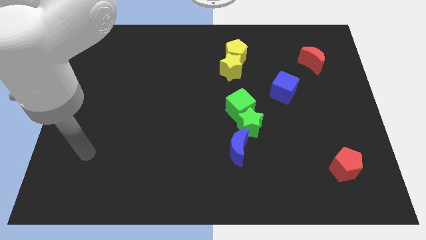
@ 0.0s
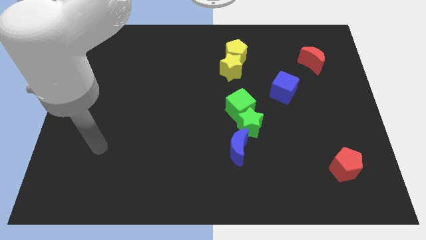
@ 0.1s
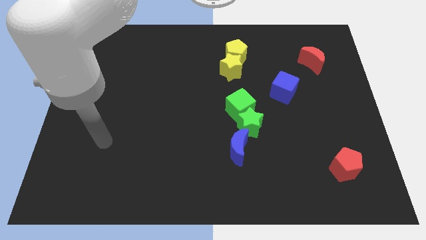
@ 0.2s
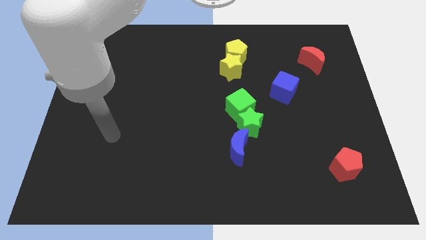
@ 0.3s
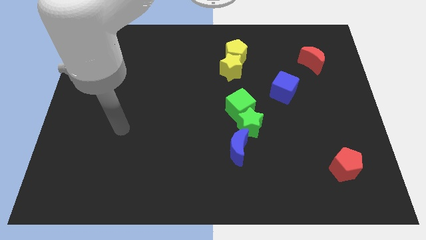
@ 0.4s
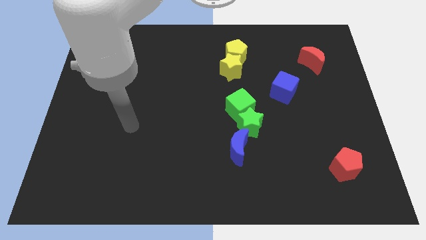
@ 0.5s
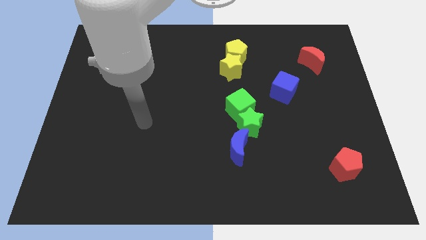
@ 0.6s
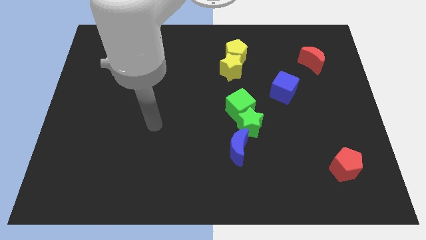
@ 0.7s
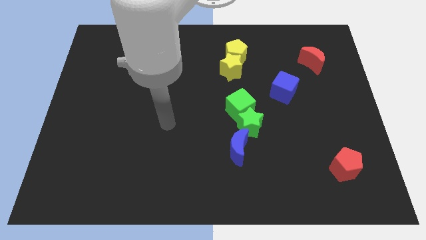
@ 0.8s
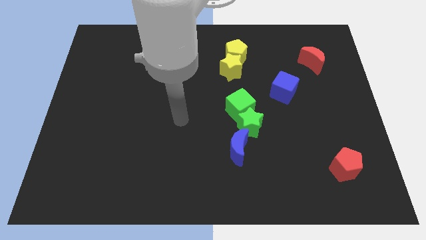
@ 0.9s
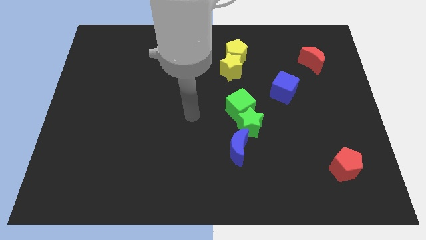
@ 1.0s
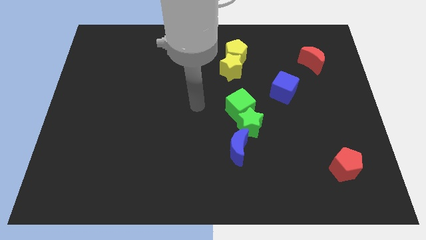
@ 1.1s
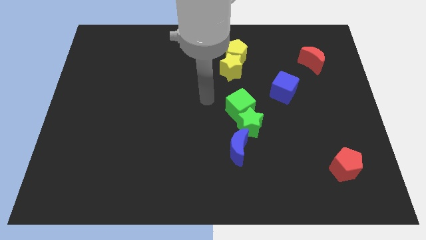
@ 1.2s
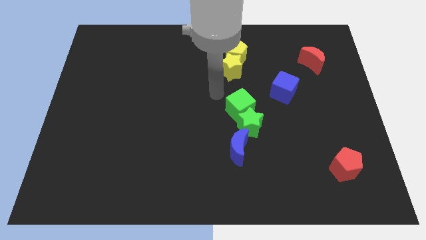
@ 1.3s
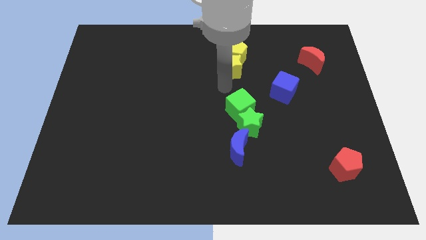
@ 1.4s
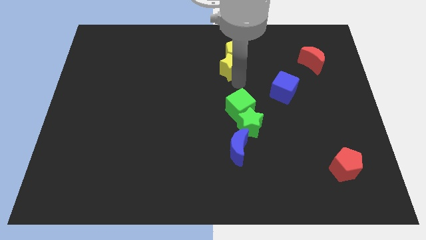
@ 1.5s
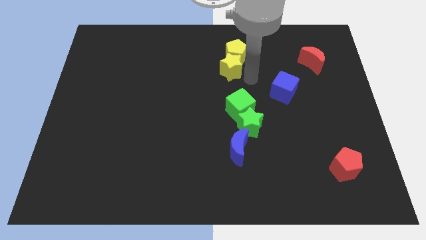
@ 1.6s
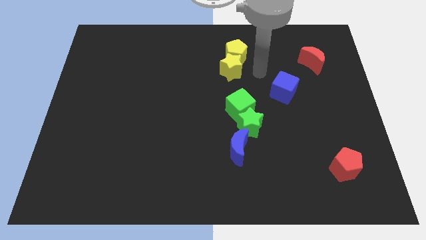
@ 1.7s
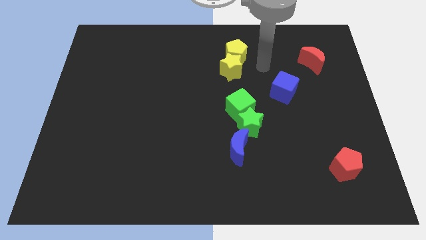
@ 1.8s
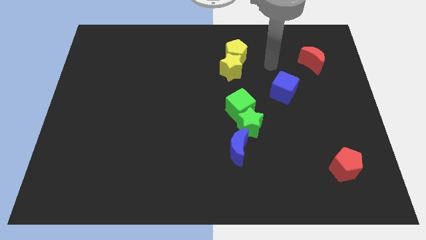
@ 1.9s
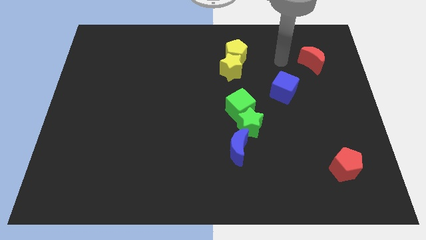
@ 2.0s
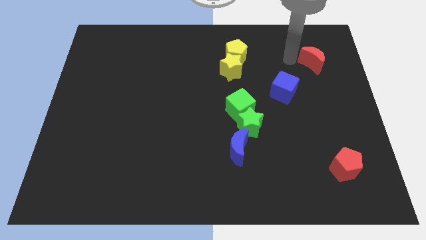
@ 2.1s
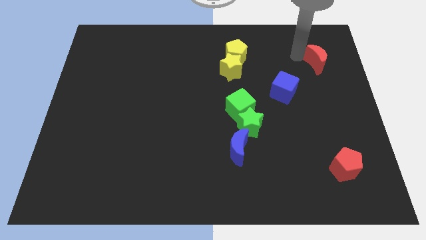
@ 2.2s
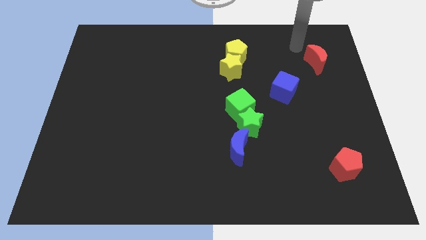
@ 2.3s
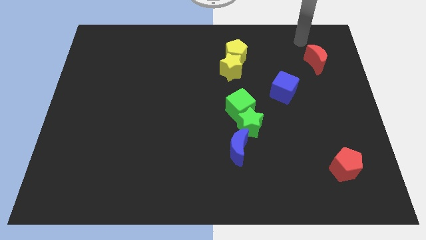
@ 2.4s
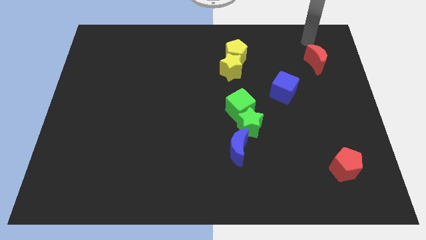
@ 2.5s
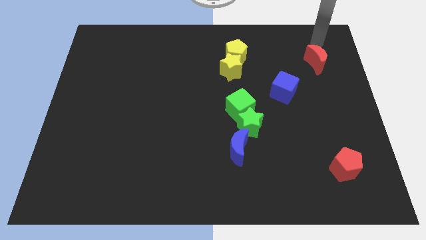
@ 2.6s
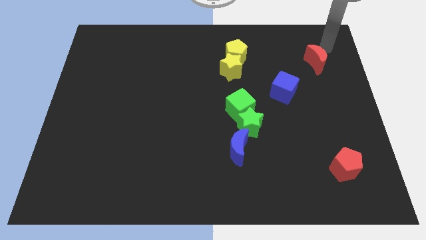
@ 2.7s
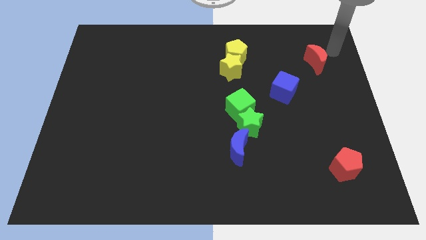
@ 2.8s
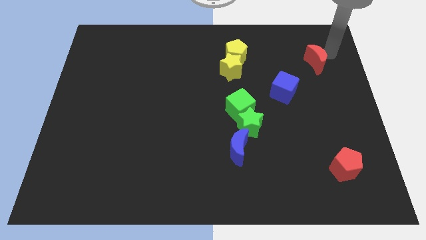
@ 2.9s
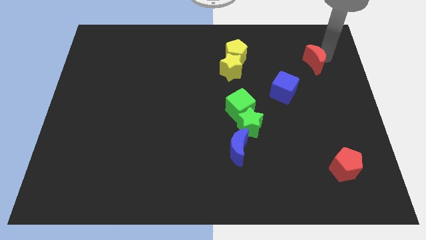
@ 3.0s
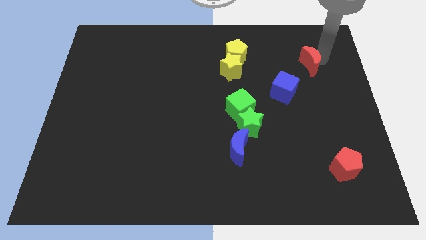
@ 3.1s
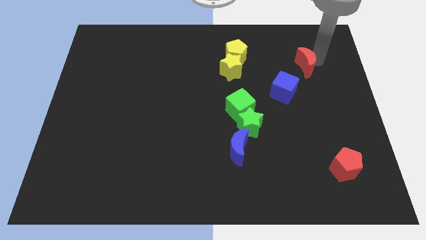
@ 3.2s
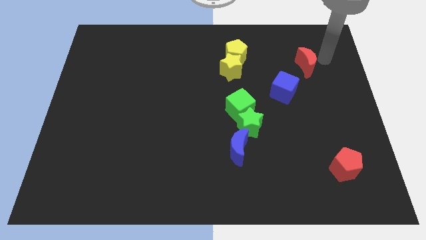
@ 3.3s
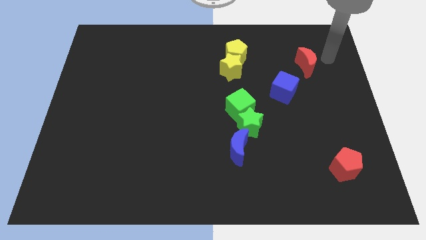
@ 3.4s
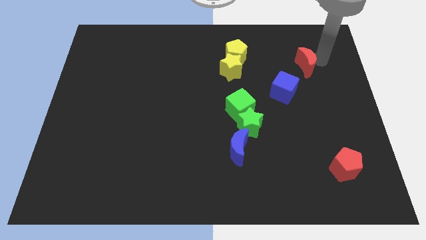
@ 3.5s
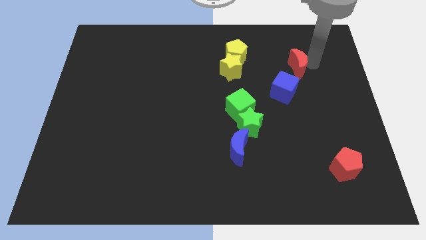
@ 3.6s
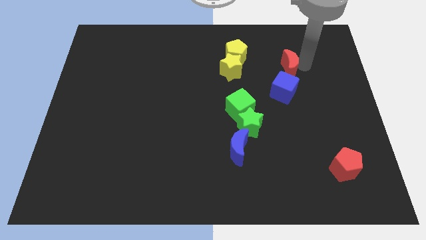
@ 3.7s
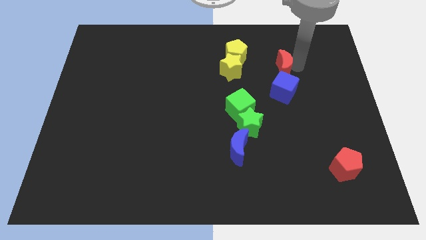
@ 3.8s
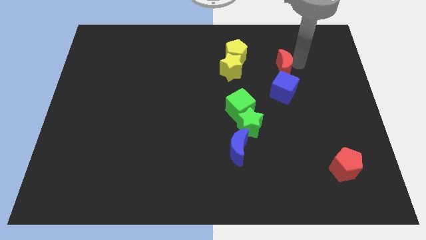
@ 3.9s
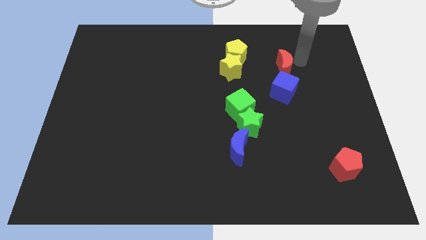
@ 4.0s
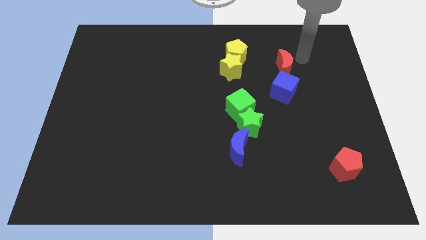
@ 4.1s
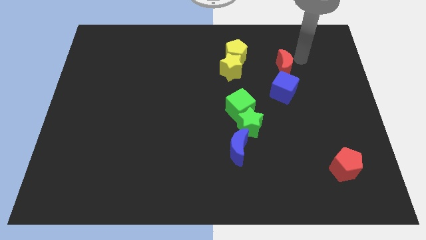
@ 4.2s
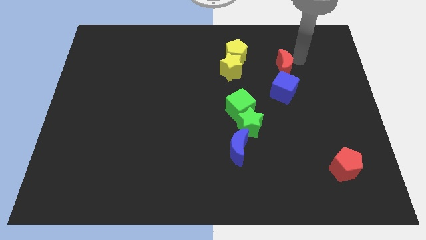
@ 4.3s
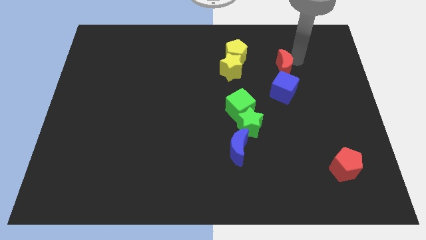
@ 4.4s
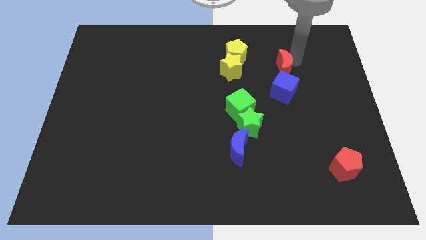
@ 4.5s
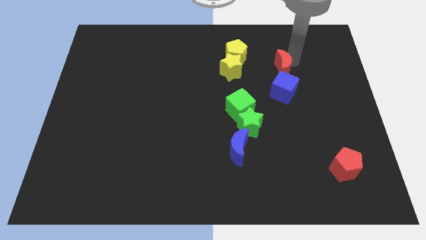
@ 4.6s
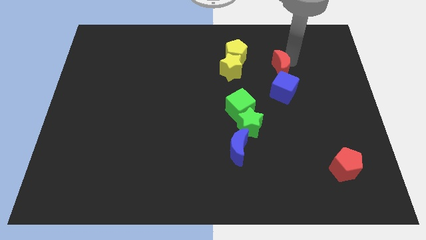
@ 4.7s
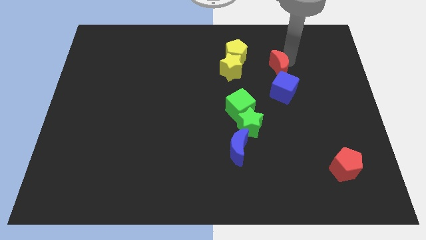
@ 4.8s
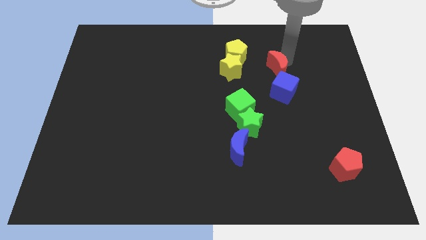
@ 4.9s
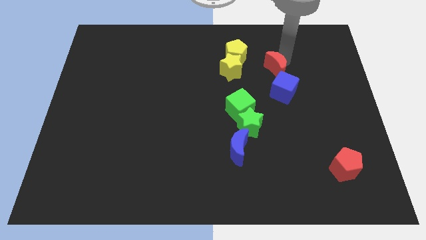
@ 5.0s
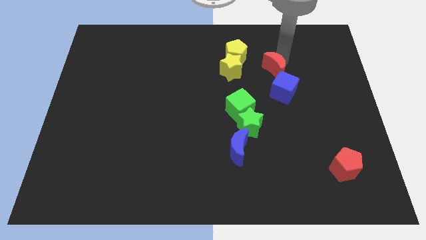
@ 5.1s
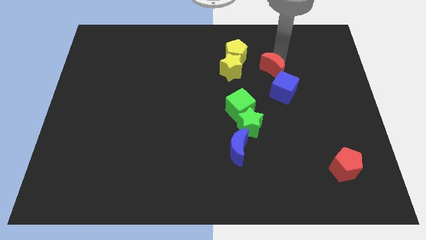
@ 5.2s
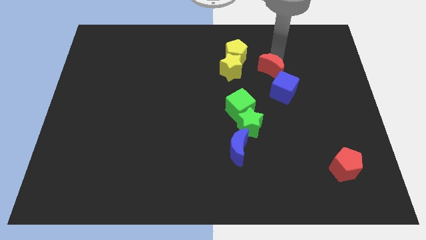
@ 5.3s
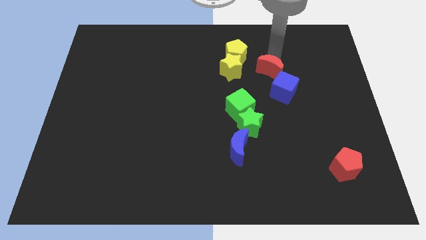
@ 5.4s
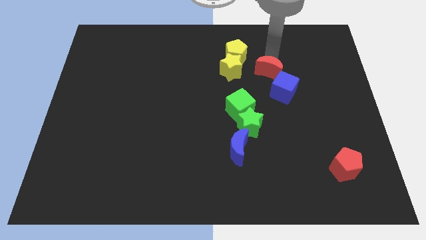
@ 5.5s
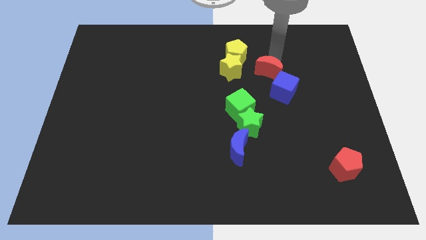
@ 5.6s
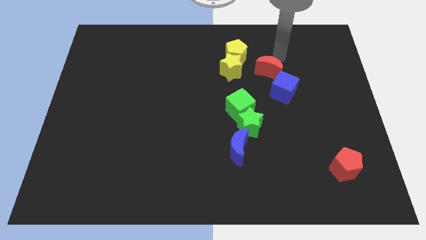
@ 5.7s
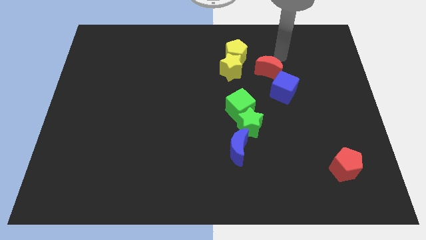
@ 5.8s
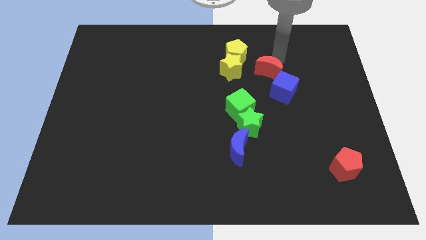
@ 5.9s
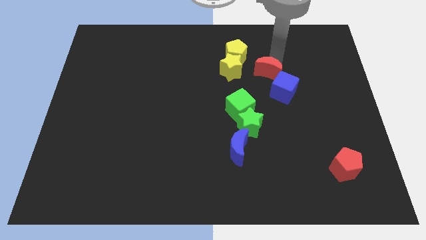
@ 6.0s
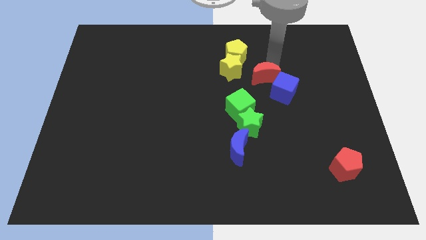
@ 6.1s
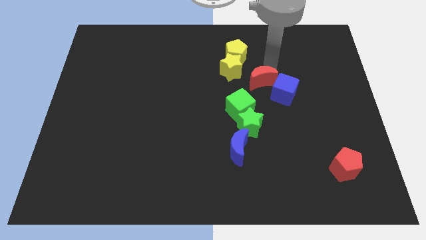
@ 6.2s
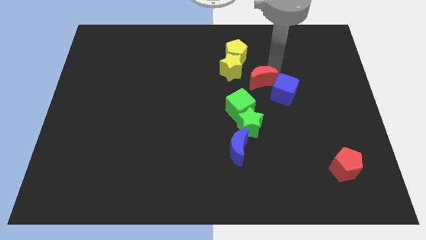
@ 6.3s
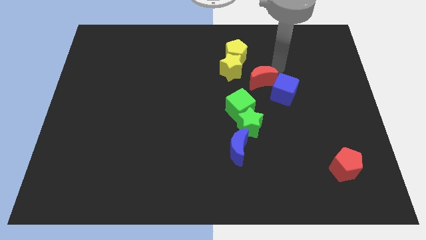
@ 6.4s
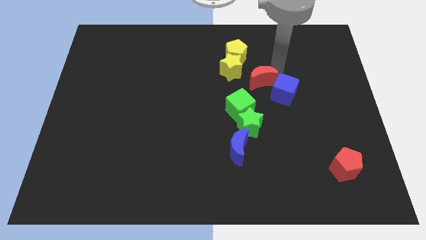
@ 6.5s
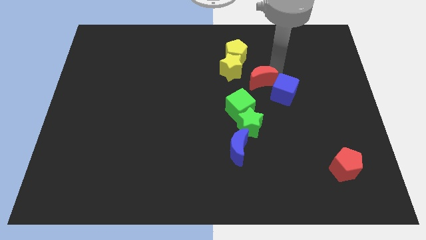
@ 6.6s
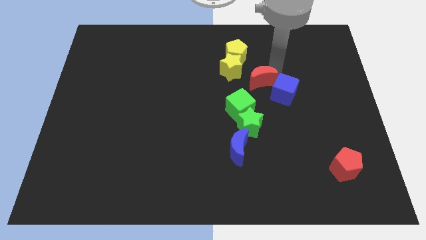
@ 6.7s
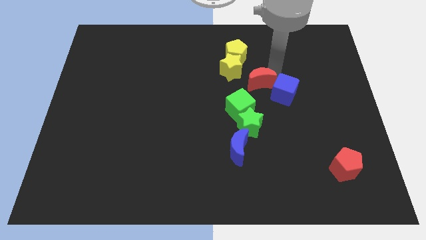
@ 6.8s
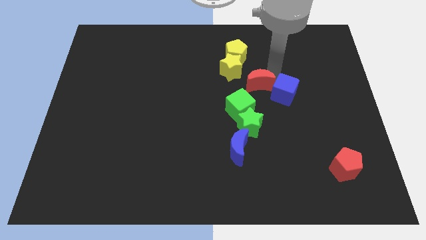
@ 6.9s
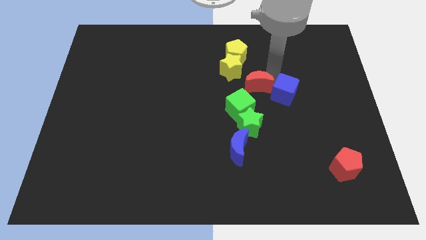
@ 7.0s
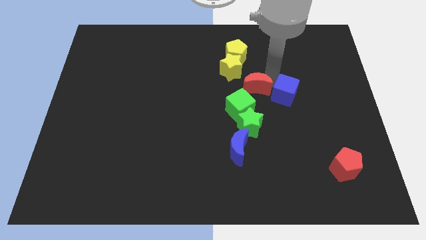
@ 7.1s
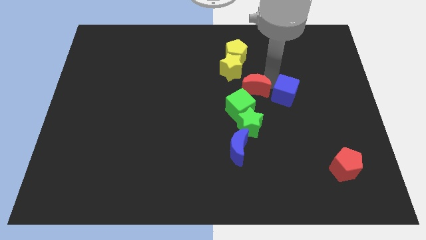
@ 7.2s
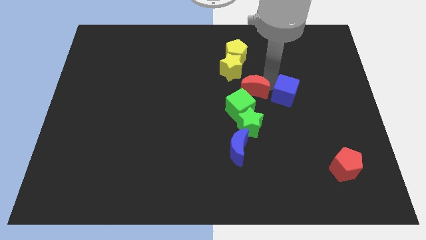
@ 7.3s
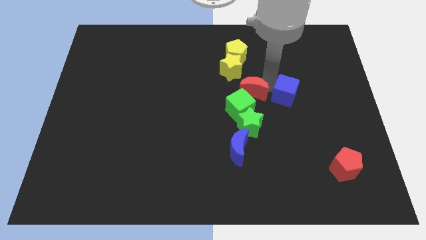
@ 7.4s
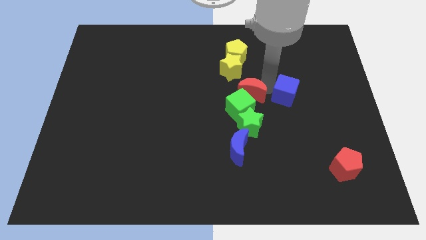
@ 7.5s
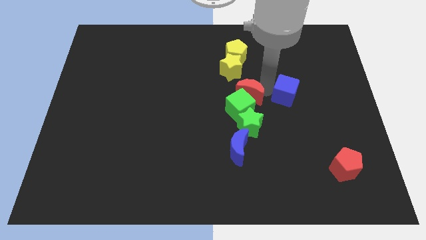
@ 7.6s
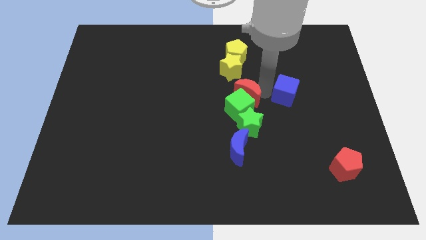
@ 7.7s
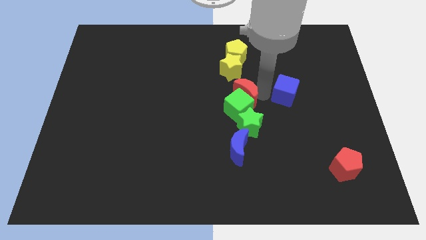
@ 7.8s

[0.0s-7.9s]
push the red moon down and to the left diagonally
